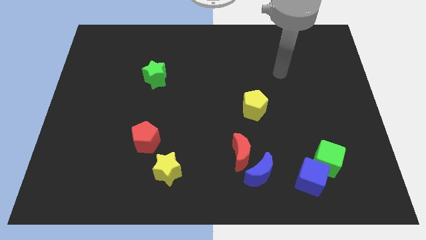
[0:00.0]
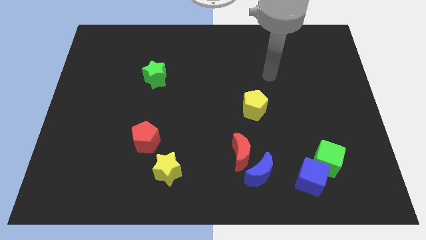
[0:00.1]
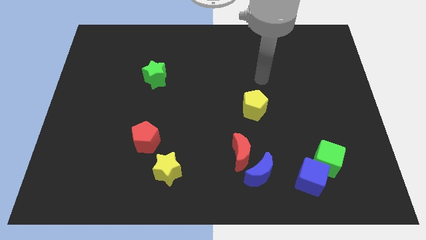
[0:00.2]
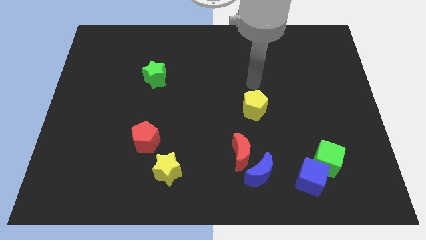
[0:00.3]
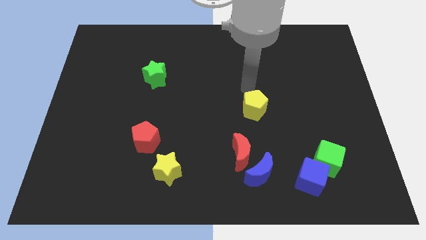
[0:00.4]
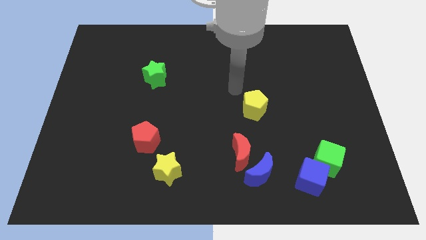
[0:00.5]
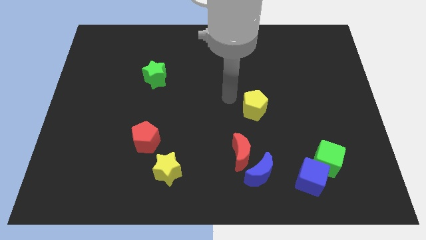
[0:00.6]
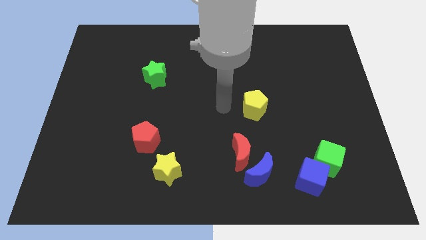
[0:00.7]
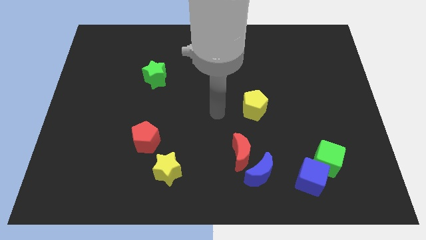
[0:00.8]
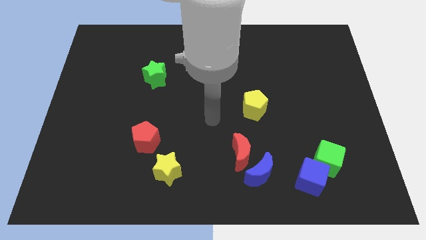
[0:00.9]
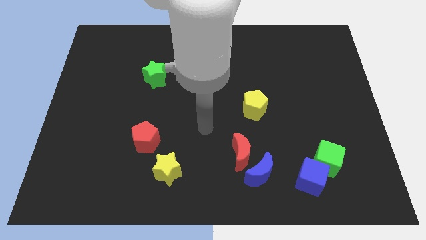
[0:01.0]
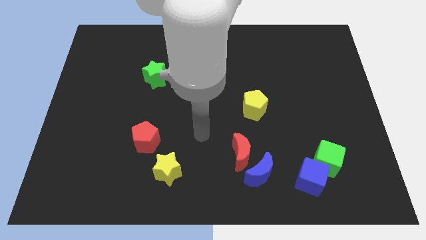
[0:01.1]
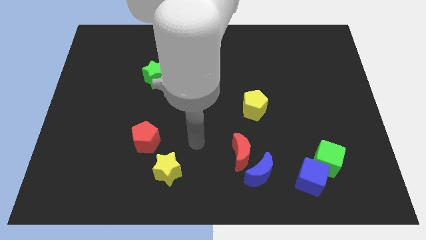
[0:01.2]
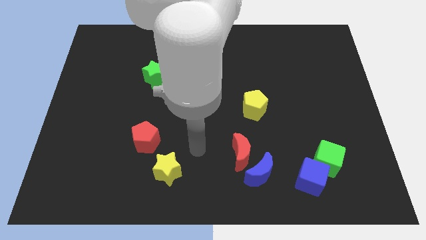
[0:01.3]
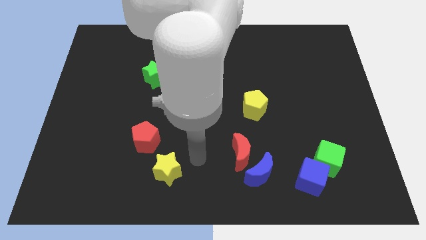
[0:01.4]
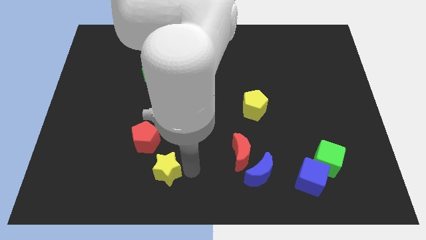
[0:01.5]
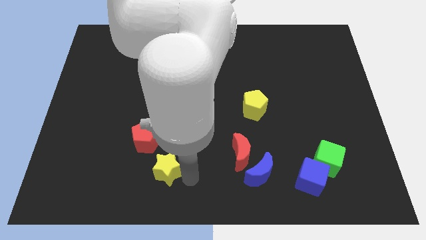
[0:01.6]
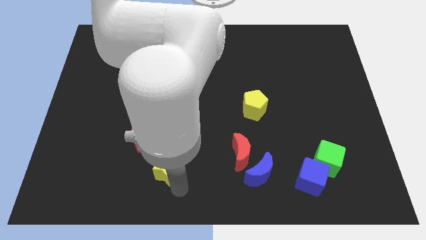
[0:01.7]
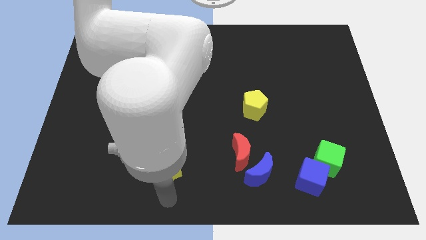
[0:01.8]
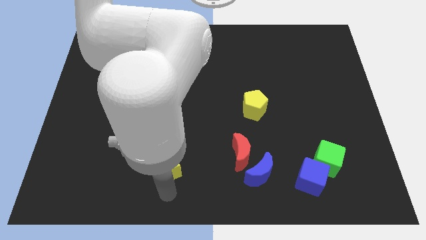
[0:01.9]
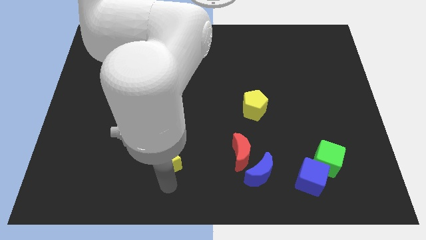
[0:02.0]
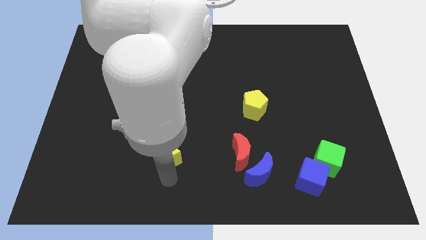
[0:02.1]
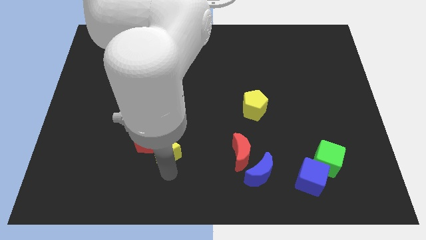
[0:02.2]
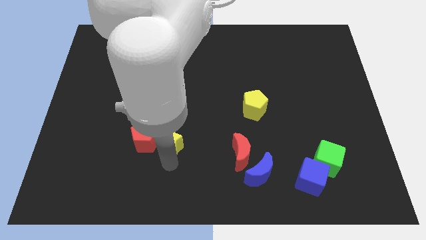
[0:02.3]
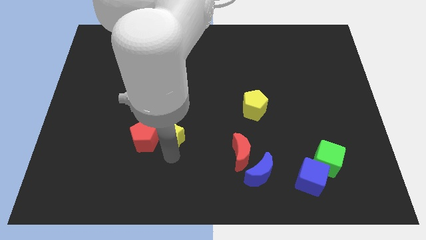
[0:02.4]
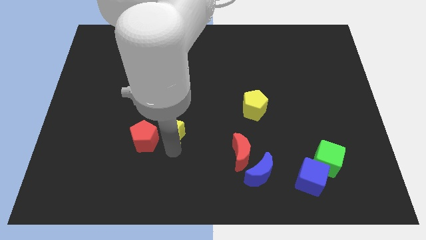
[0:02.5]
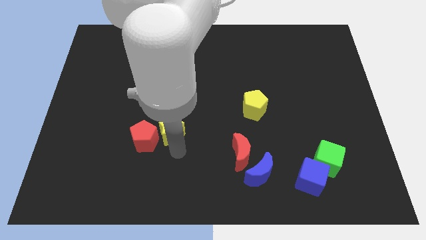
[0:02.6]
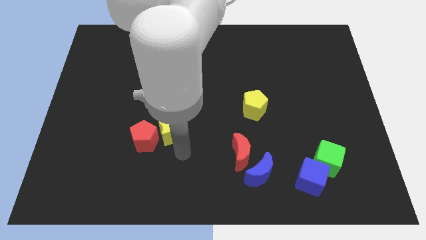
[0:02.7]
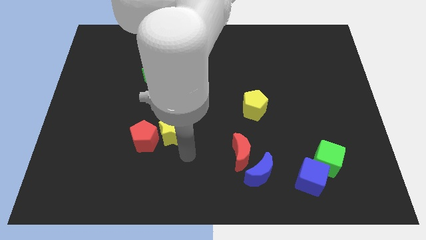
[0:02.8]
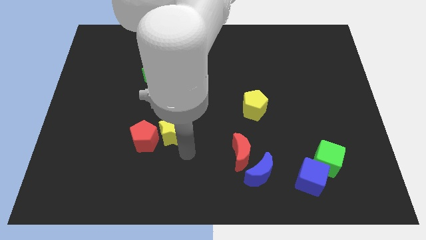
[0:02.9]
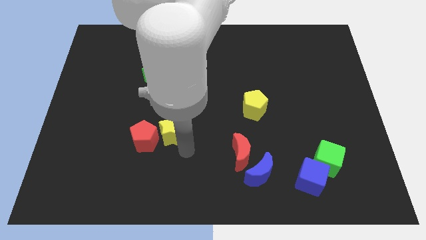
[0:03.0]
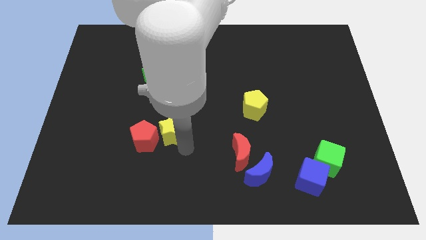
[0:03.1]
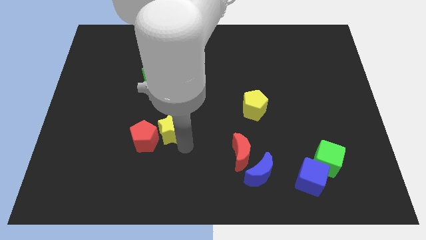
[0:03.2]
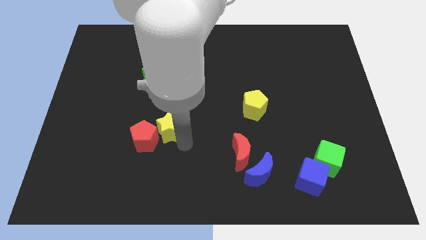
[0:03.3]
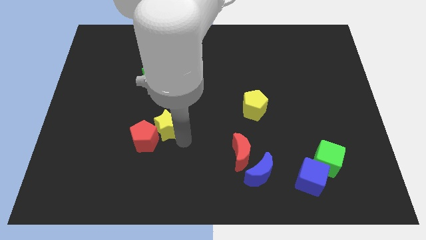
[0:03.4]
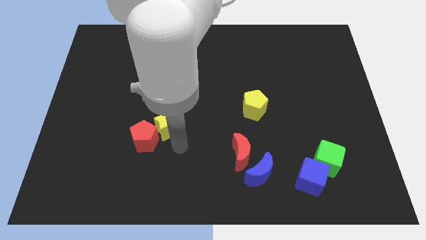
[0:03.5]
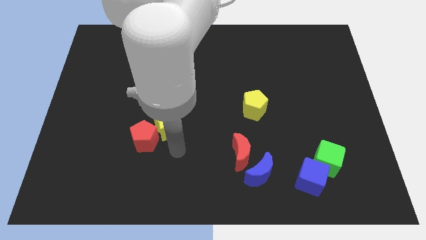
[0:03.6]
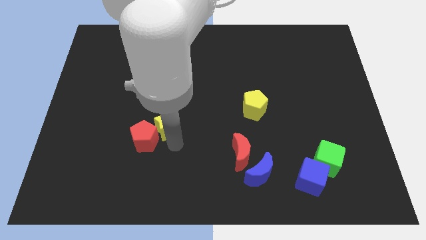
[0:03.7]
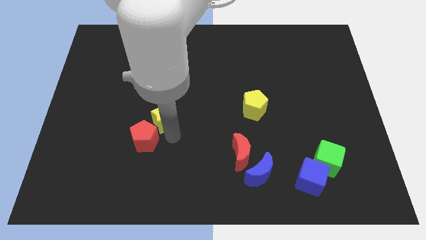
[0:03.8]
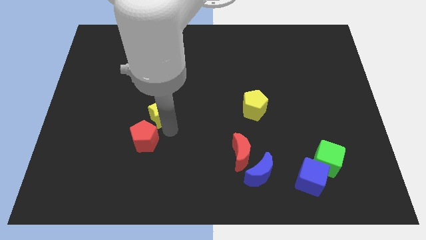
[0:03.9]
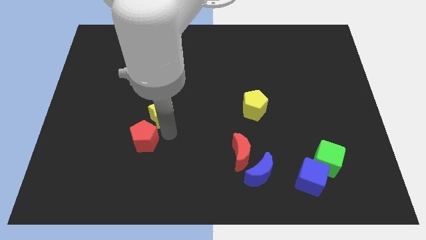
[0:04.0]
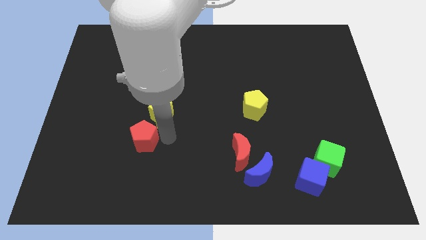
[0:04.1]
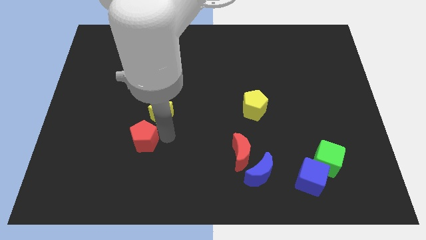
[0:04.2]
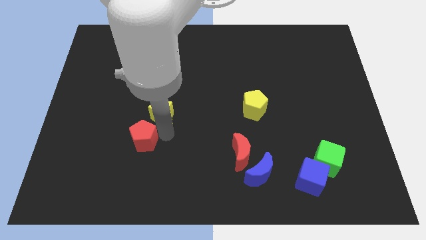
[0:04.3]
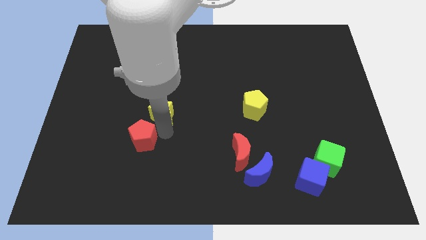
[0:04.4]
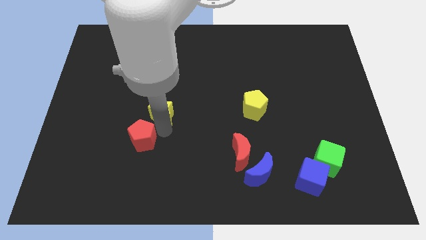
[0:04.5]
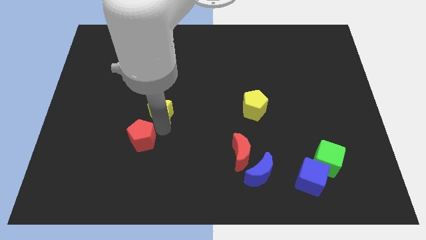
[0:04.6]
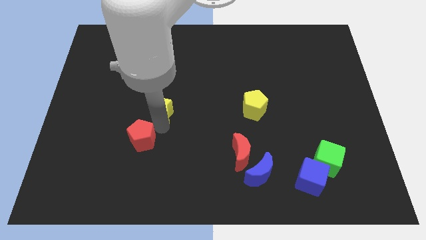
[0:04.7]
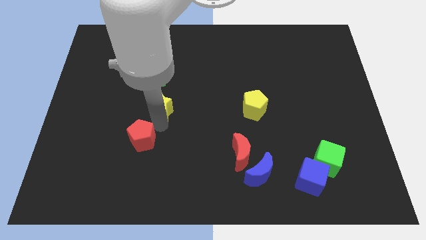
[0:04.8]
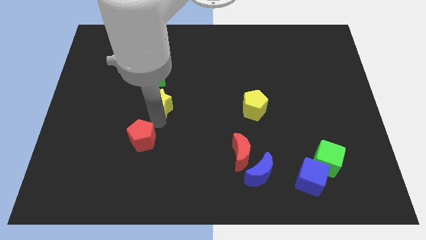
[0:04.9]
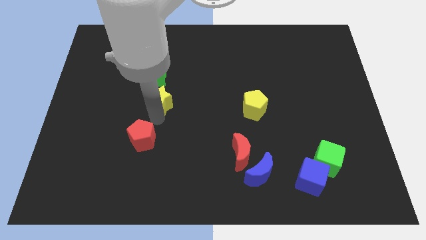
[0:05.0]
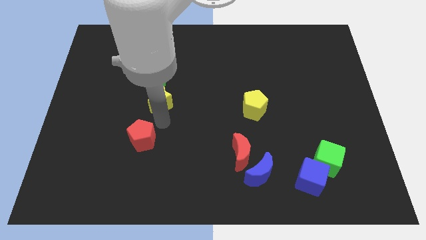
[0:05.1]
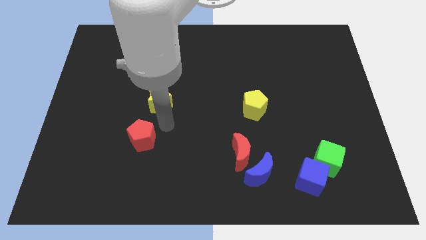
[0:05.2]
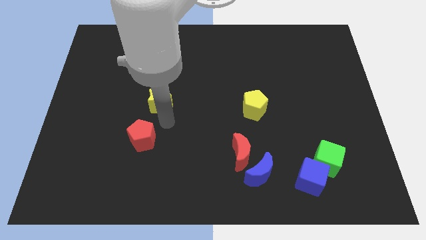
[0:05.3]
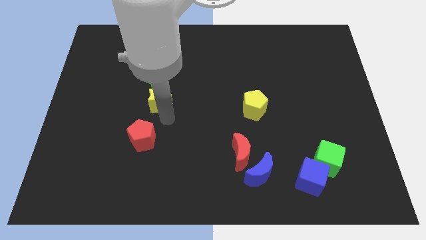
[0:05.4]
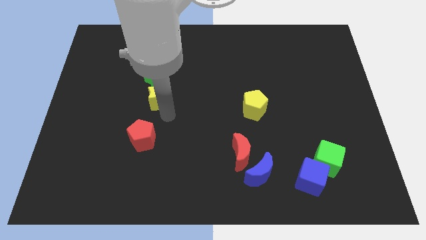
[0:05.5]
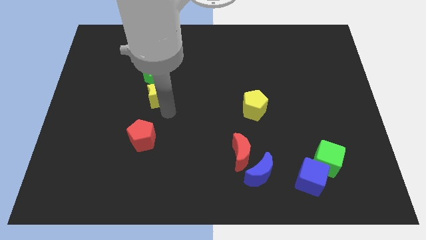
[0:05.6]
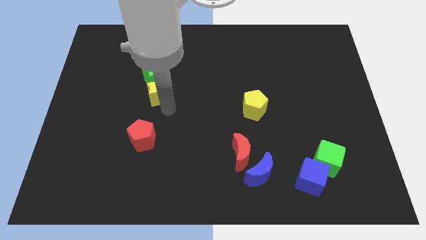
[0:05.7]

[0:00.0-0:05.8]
move the yellow star next to the green star

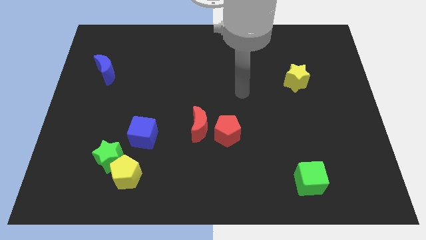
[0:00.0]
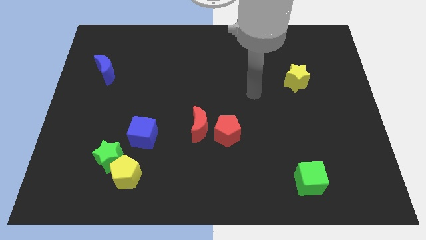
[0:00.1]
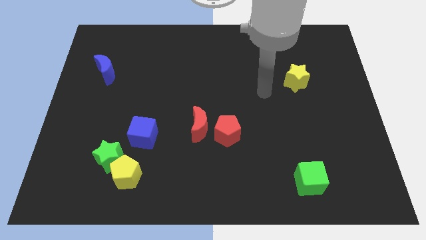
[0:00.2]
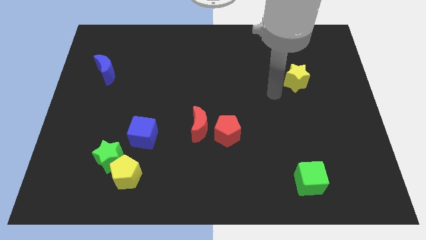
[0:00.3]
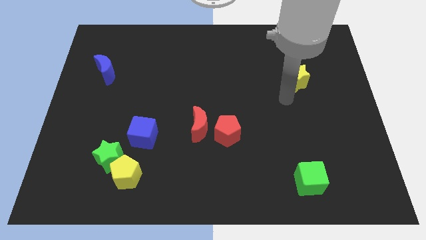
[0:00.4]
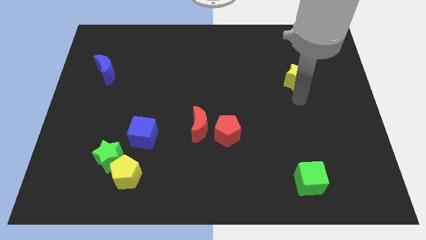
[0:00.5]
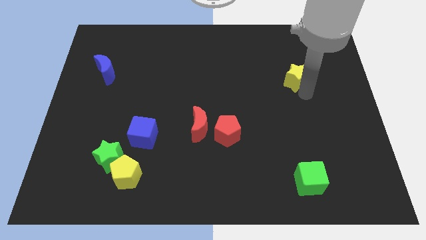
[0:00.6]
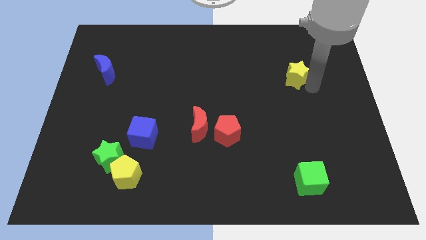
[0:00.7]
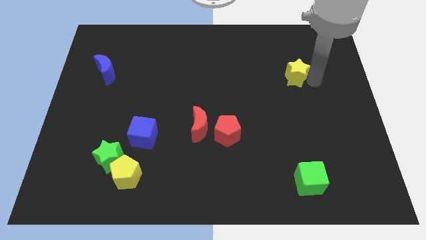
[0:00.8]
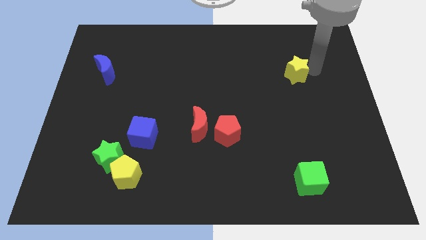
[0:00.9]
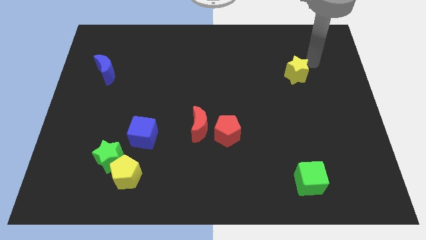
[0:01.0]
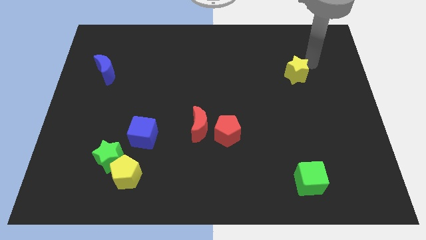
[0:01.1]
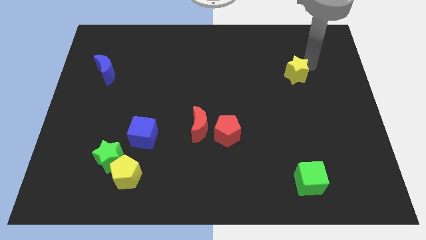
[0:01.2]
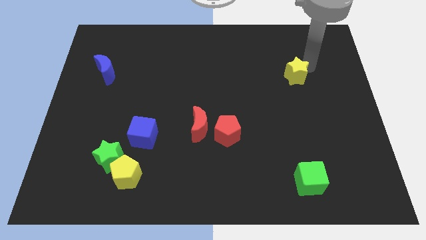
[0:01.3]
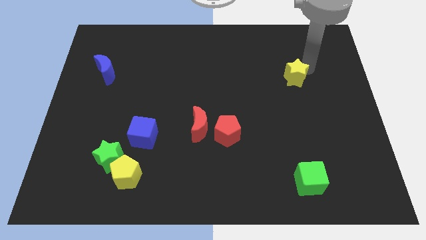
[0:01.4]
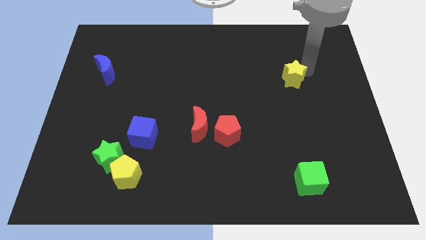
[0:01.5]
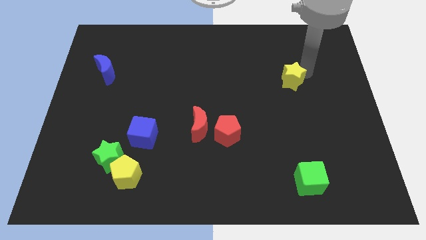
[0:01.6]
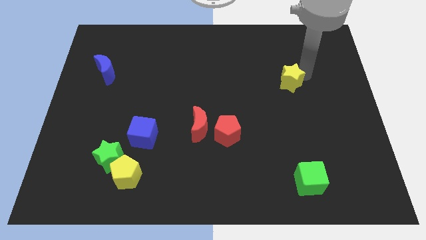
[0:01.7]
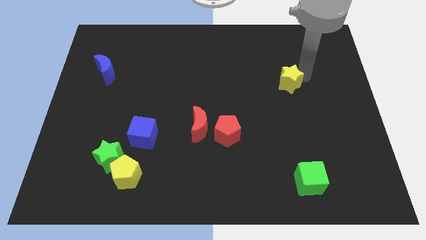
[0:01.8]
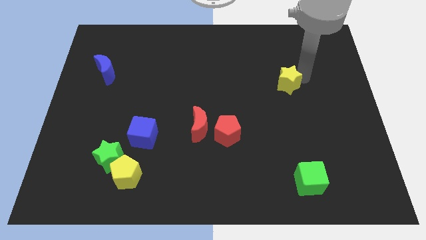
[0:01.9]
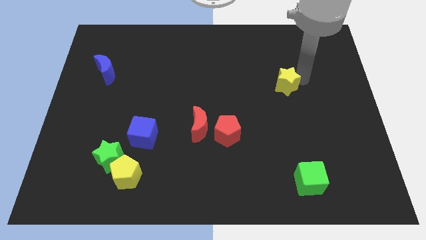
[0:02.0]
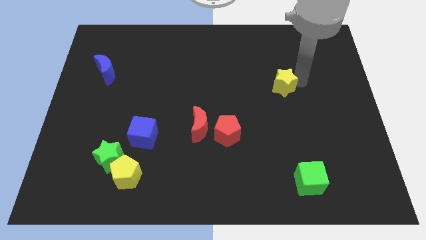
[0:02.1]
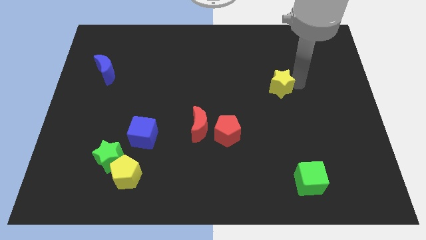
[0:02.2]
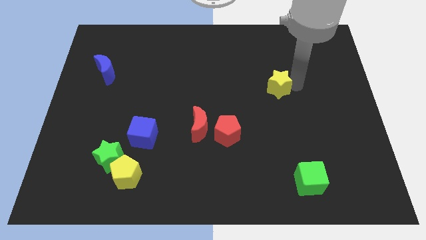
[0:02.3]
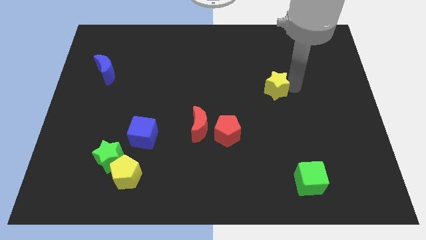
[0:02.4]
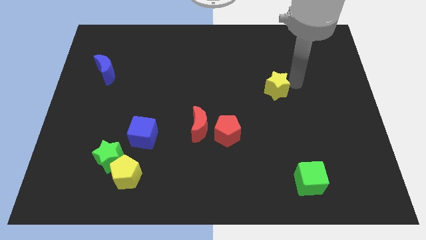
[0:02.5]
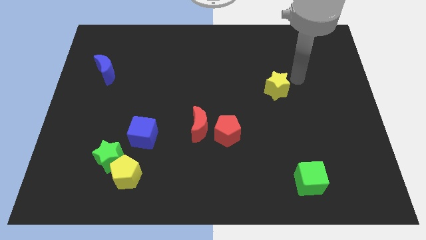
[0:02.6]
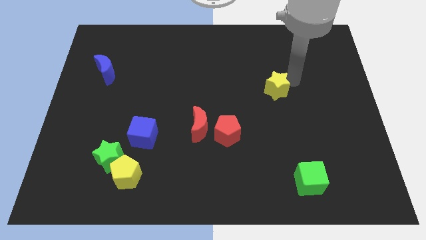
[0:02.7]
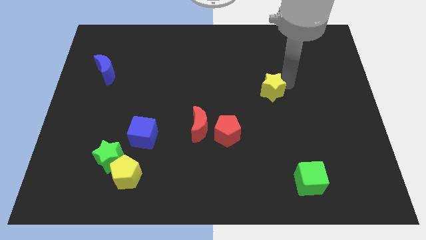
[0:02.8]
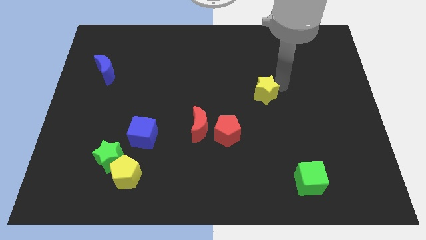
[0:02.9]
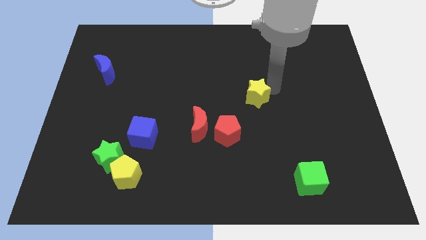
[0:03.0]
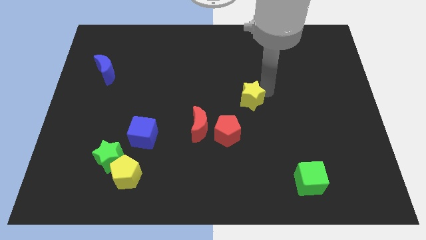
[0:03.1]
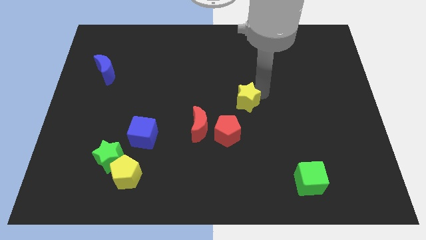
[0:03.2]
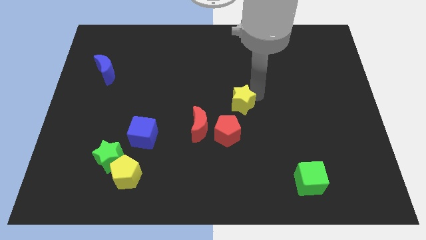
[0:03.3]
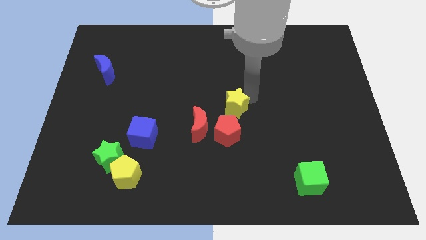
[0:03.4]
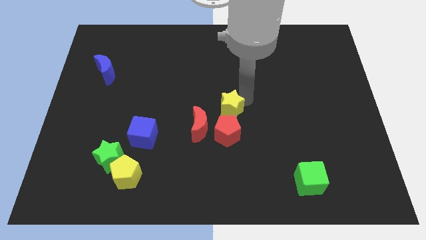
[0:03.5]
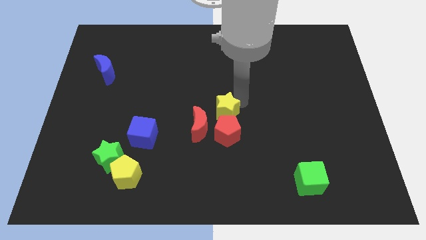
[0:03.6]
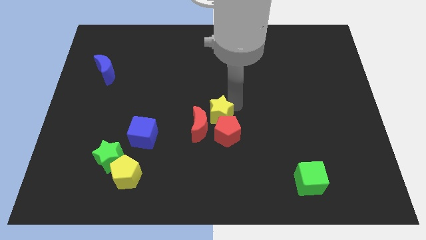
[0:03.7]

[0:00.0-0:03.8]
put the yellow star towards the red moon
